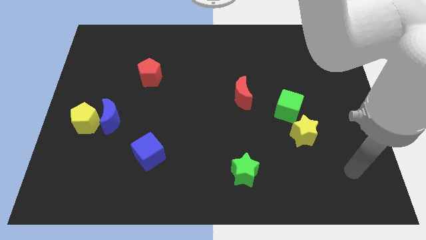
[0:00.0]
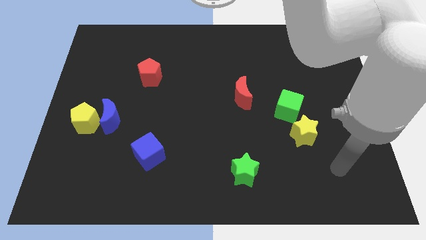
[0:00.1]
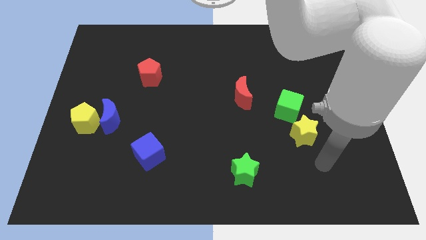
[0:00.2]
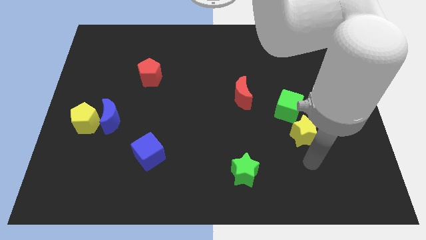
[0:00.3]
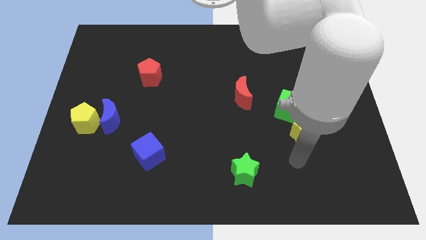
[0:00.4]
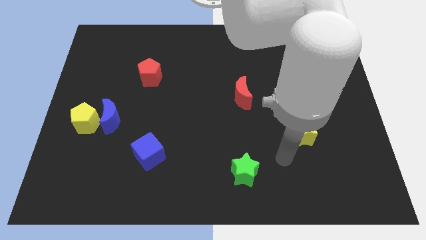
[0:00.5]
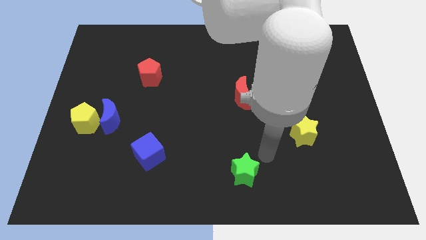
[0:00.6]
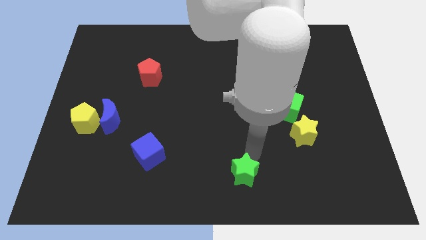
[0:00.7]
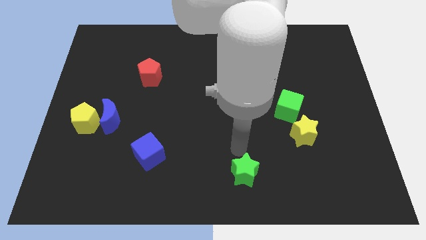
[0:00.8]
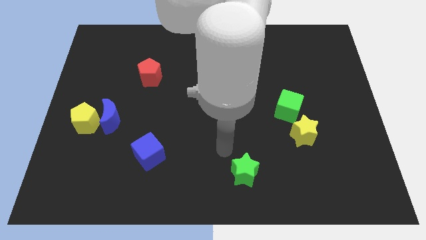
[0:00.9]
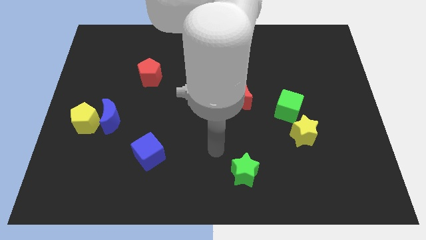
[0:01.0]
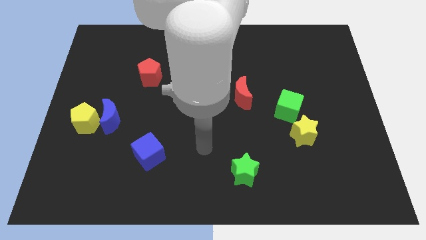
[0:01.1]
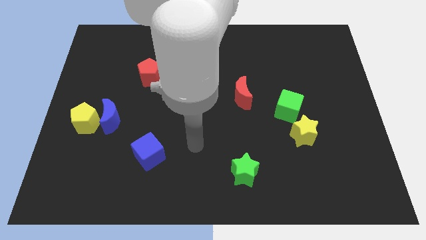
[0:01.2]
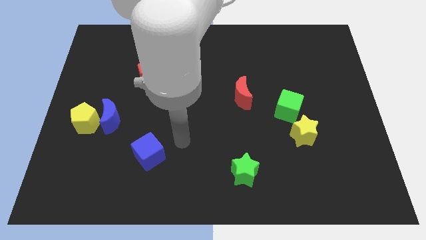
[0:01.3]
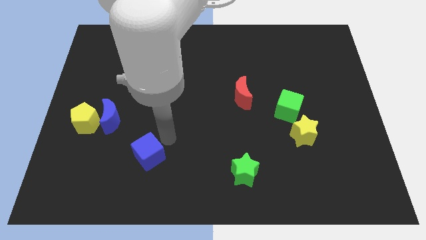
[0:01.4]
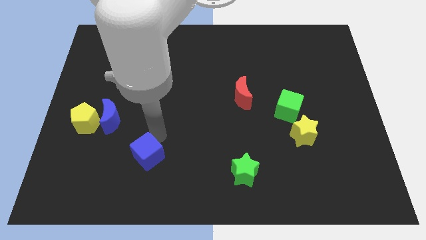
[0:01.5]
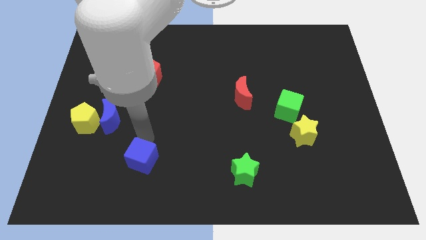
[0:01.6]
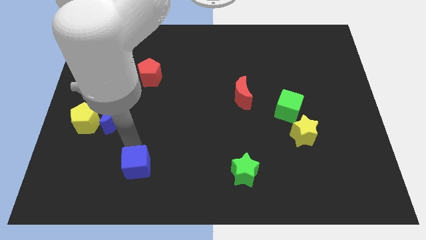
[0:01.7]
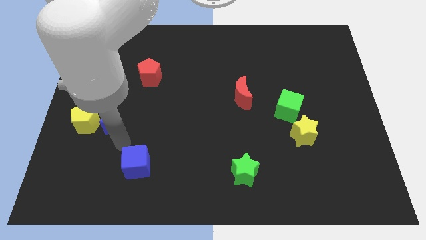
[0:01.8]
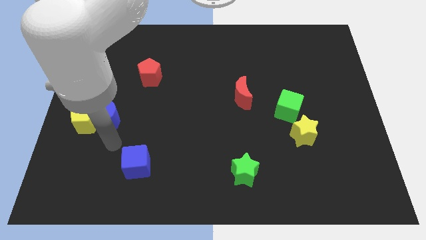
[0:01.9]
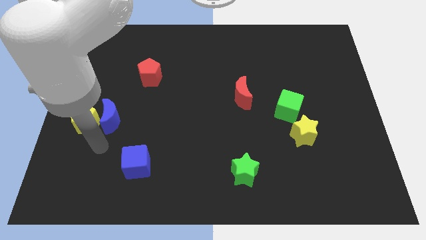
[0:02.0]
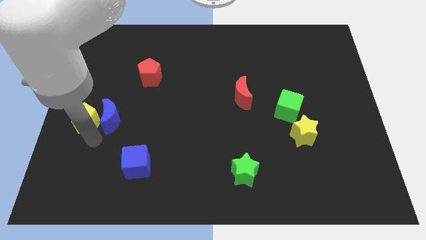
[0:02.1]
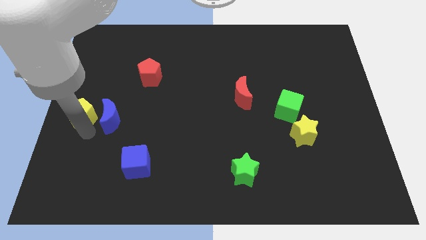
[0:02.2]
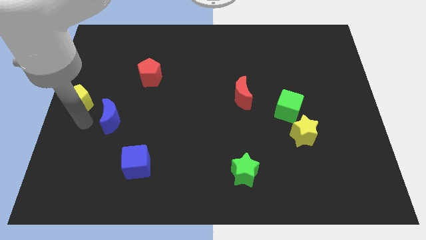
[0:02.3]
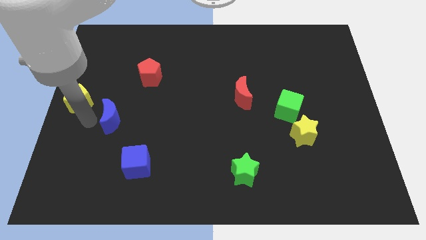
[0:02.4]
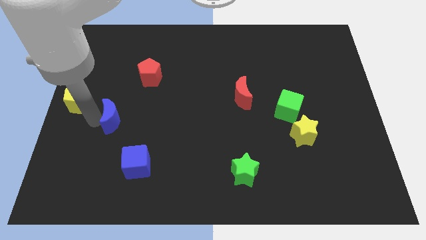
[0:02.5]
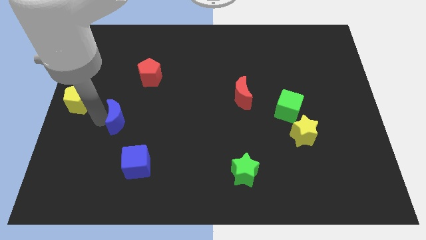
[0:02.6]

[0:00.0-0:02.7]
pull the blue moon apart from the yellow pentagon

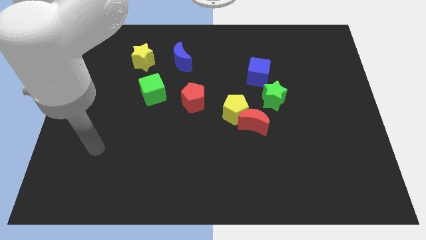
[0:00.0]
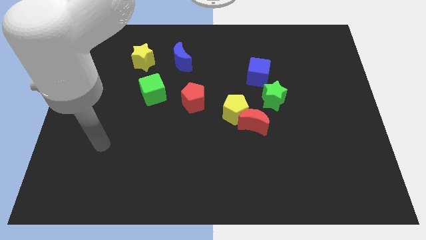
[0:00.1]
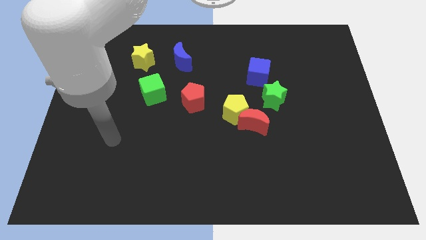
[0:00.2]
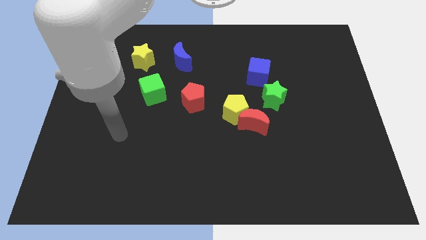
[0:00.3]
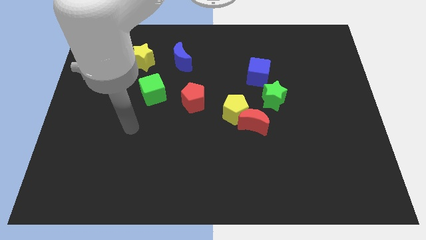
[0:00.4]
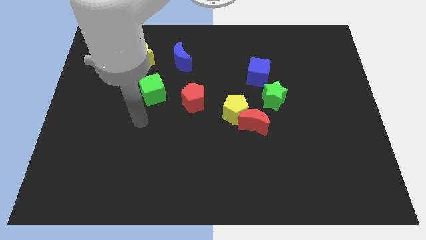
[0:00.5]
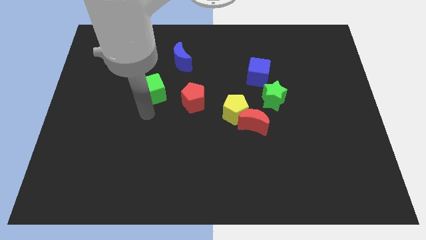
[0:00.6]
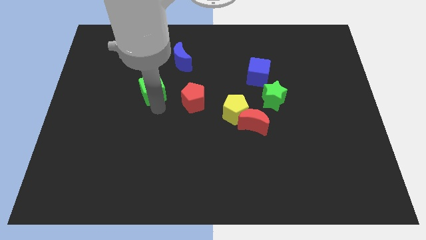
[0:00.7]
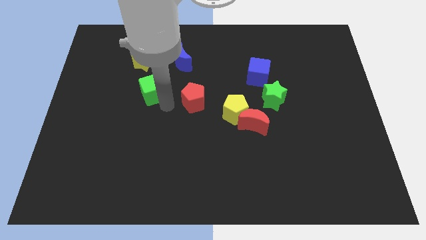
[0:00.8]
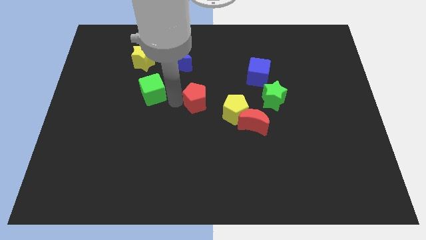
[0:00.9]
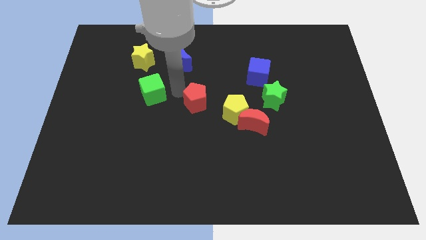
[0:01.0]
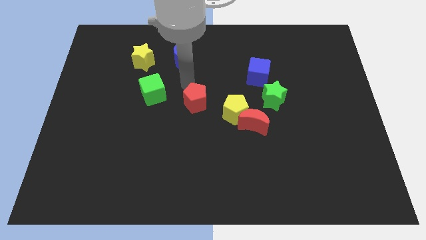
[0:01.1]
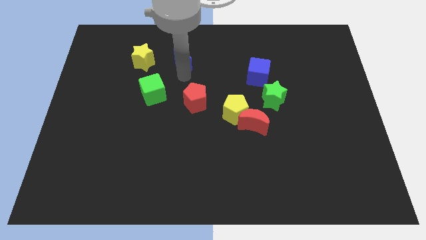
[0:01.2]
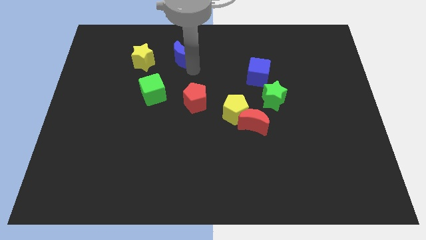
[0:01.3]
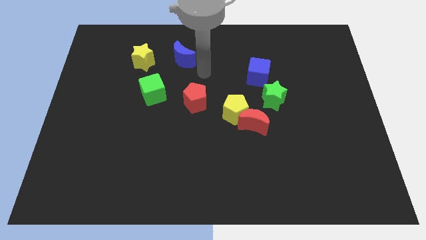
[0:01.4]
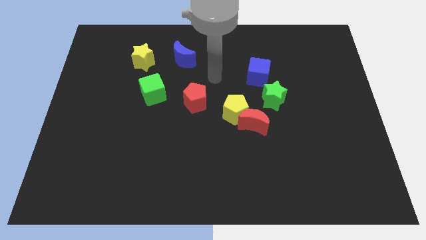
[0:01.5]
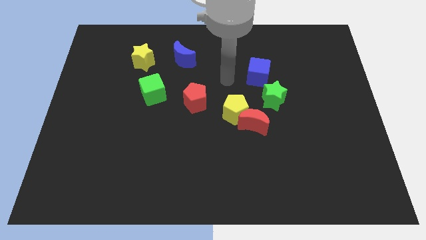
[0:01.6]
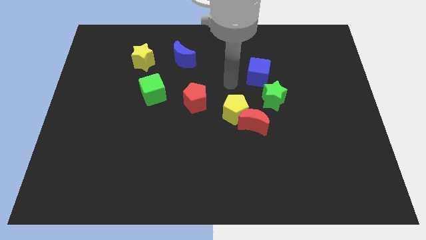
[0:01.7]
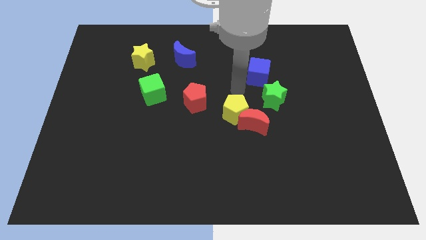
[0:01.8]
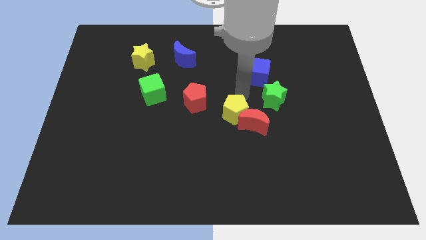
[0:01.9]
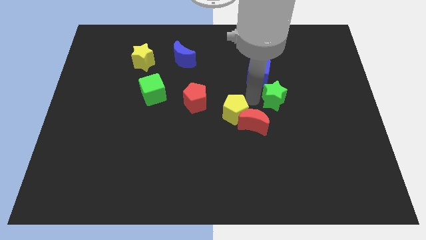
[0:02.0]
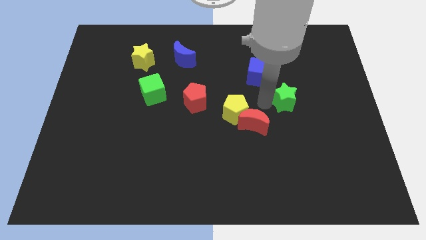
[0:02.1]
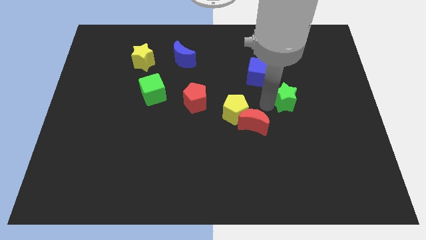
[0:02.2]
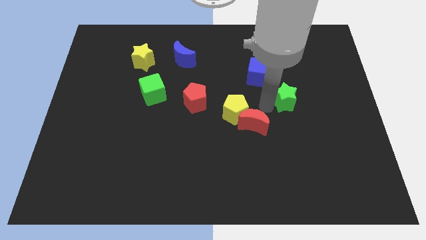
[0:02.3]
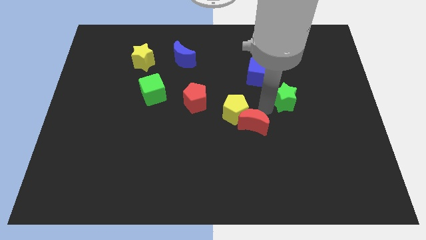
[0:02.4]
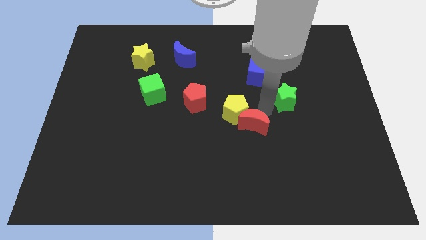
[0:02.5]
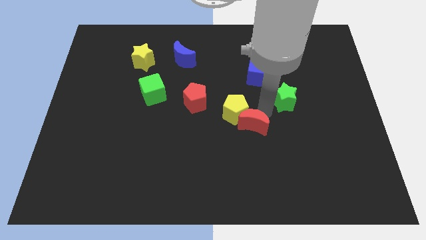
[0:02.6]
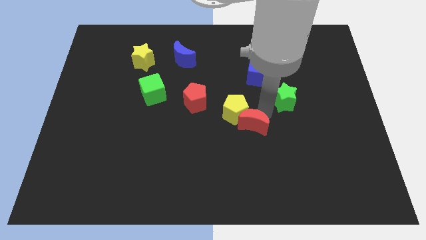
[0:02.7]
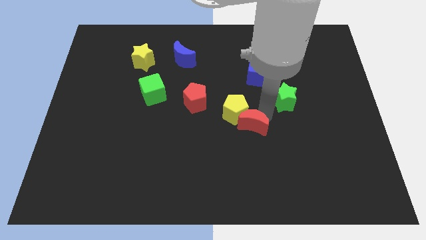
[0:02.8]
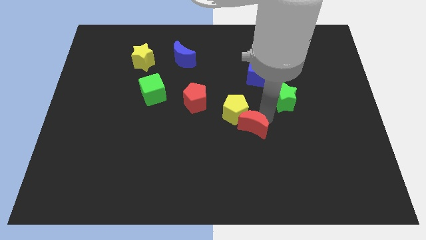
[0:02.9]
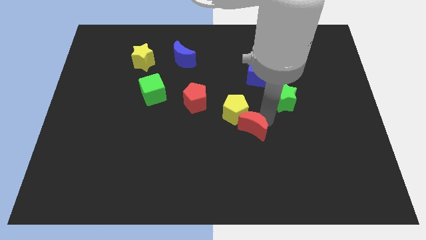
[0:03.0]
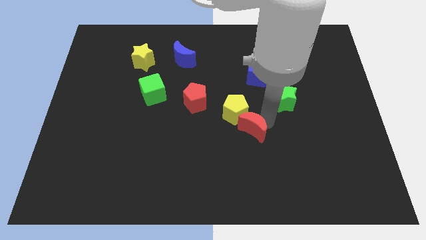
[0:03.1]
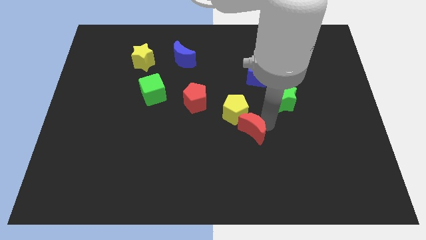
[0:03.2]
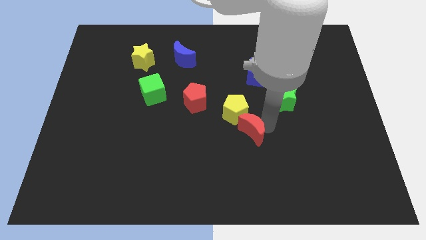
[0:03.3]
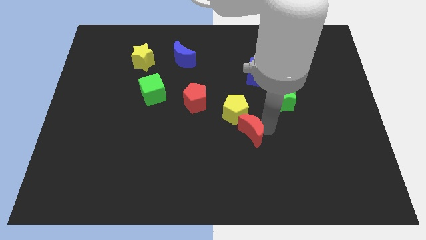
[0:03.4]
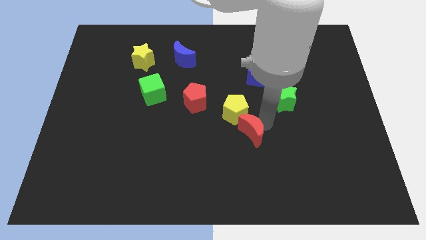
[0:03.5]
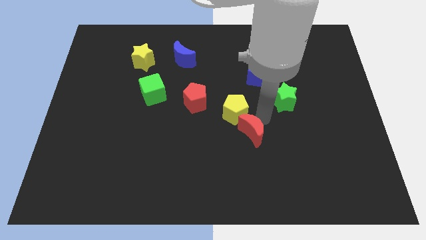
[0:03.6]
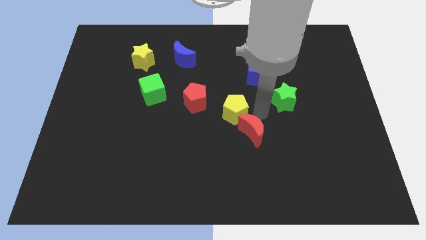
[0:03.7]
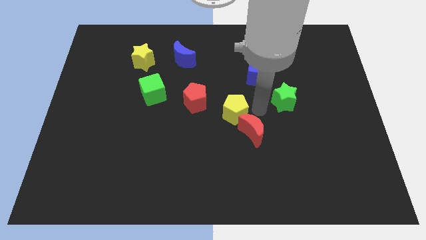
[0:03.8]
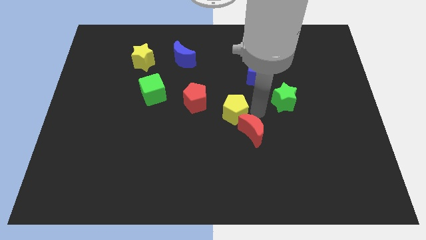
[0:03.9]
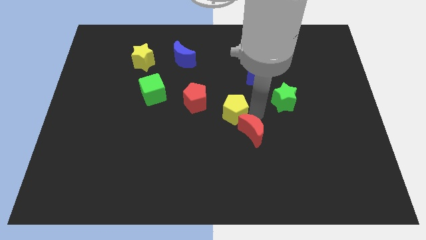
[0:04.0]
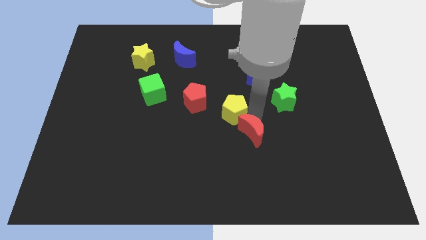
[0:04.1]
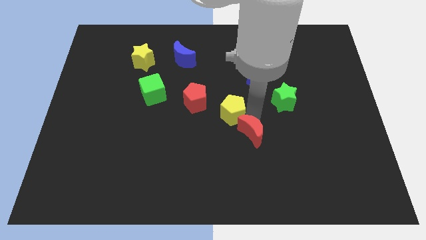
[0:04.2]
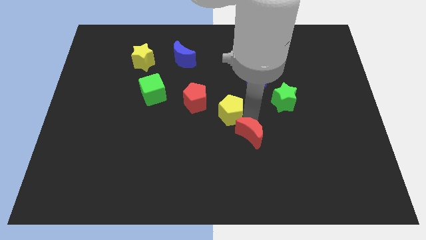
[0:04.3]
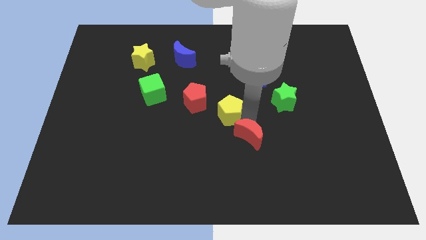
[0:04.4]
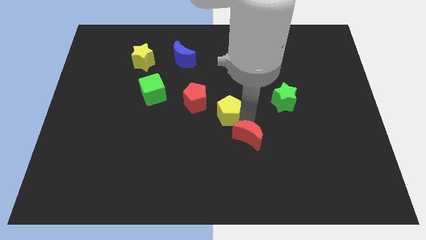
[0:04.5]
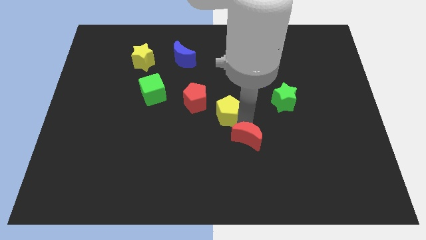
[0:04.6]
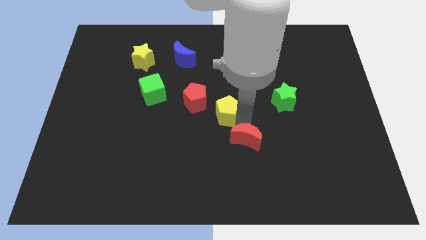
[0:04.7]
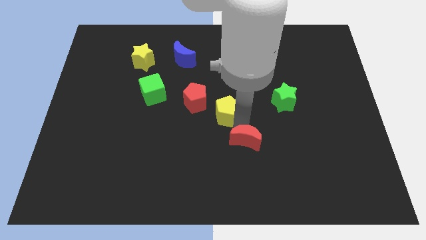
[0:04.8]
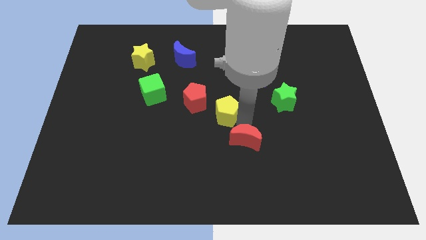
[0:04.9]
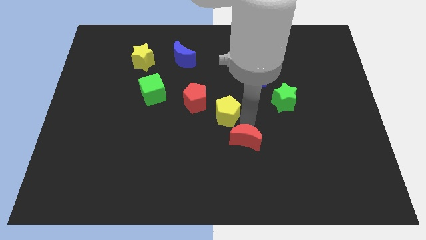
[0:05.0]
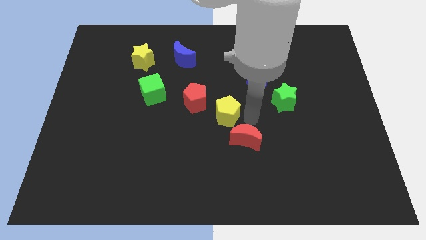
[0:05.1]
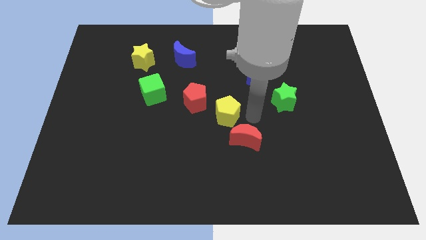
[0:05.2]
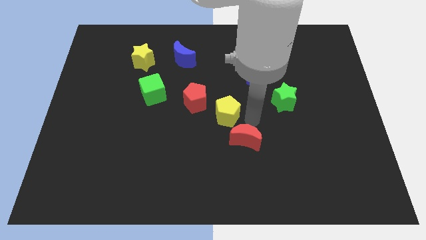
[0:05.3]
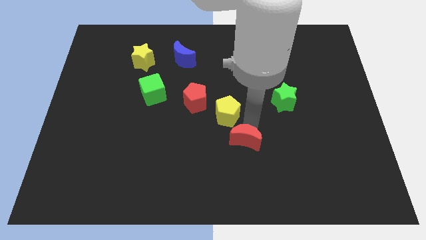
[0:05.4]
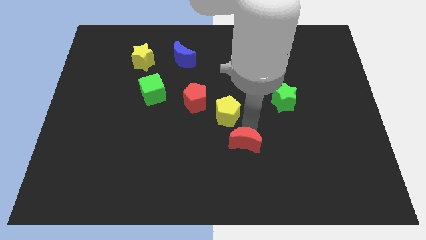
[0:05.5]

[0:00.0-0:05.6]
move the red moon away from the yellow pentagon and green star

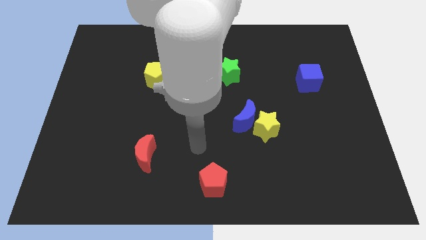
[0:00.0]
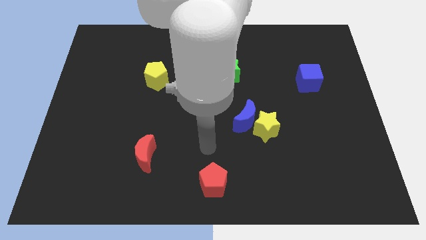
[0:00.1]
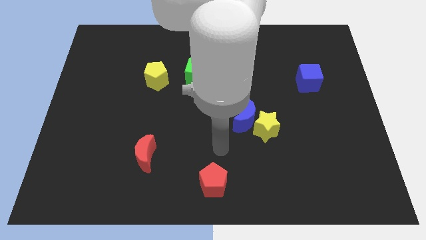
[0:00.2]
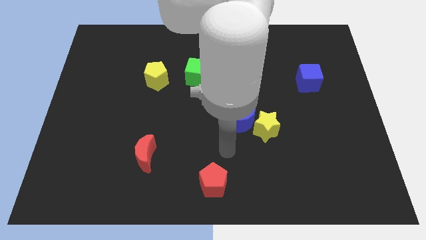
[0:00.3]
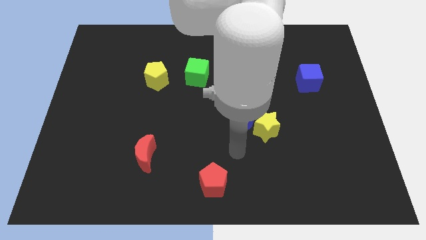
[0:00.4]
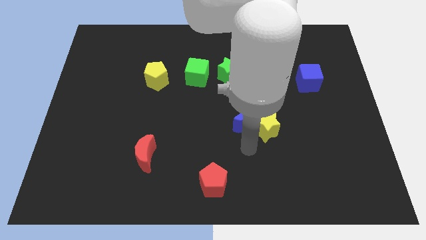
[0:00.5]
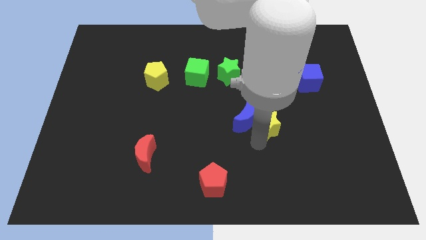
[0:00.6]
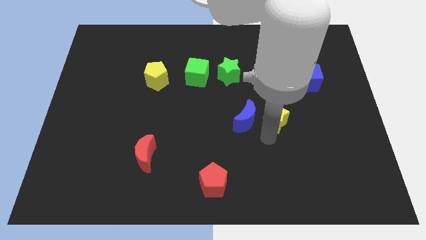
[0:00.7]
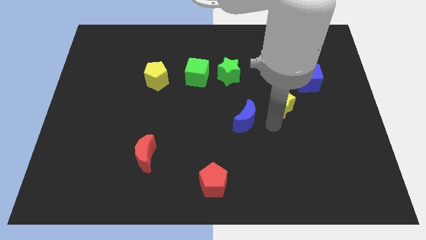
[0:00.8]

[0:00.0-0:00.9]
move the blue moon away from the yellow star

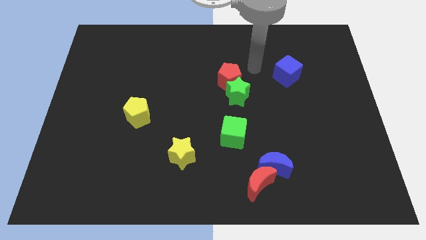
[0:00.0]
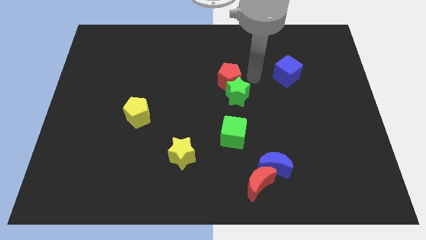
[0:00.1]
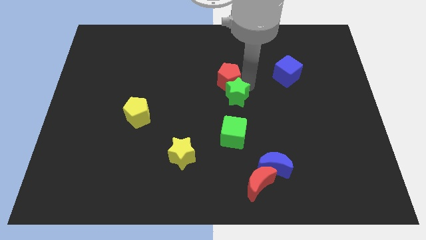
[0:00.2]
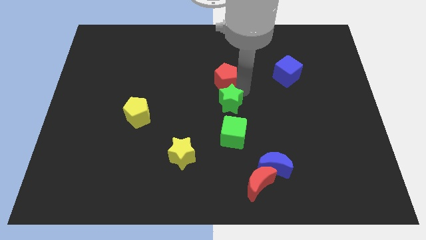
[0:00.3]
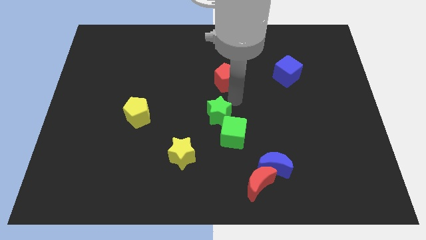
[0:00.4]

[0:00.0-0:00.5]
move the red pentagon away from the green star
